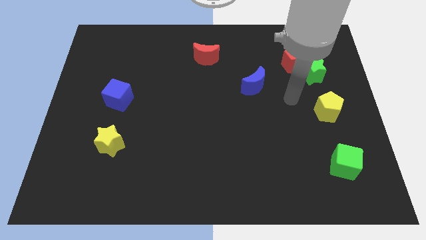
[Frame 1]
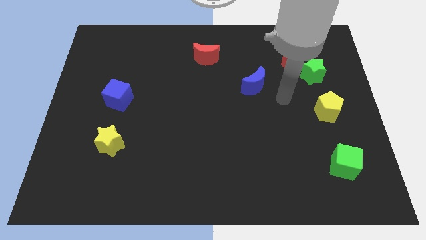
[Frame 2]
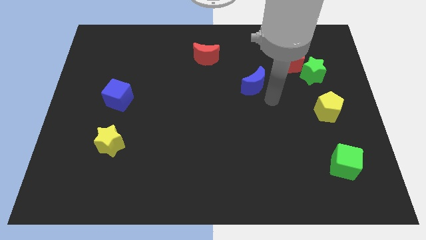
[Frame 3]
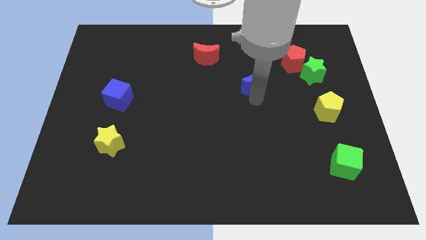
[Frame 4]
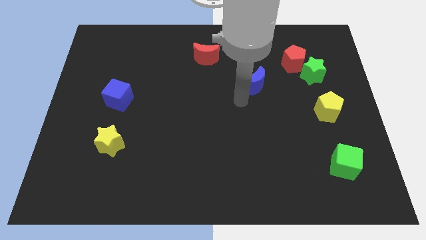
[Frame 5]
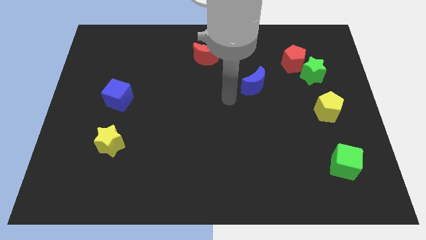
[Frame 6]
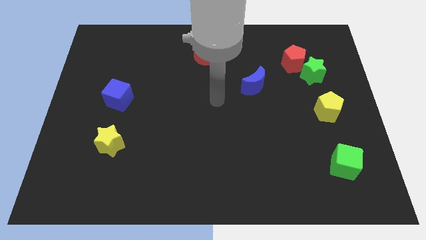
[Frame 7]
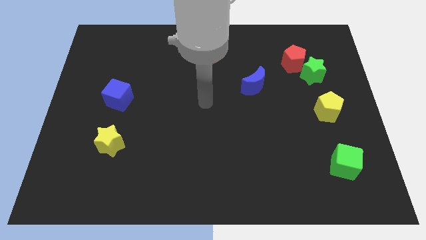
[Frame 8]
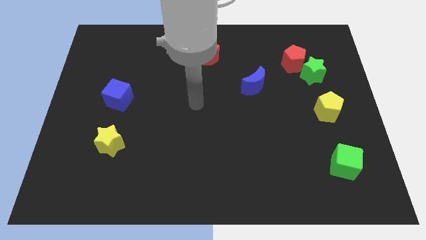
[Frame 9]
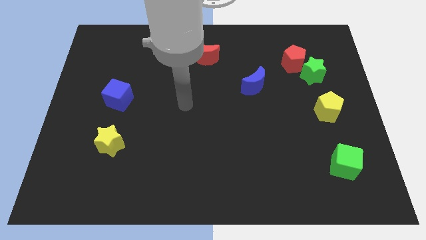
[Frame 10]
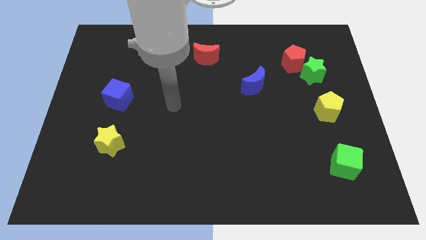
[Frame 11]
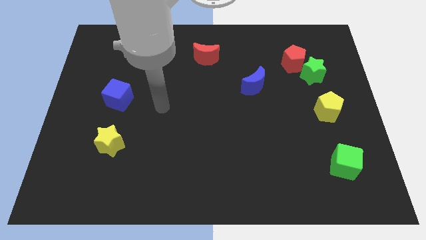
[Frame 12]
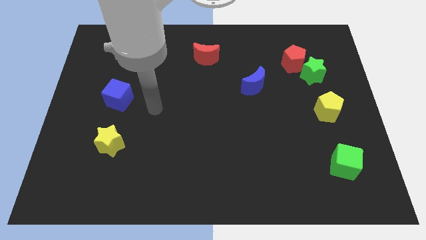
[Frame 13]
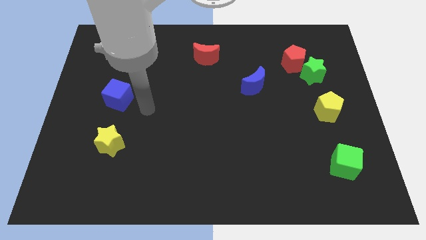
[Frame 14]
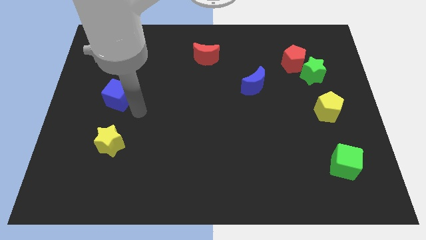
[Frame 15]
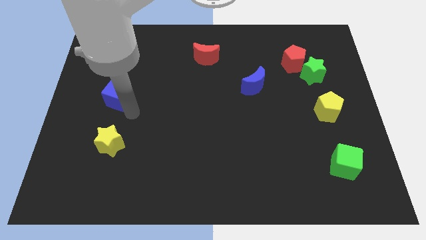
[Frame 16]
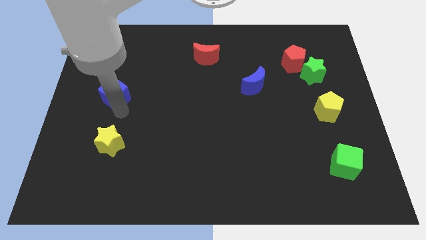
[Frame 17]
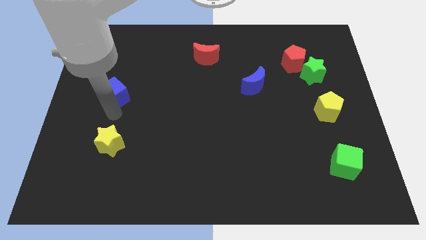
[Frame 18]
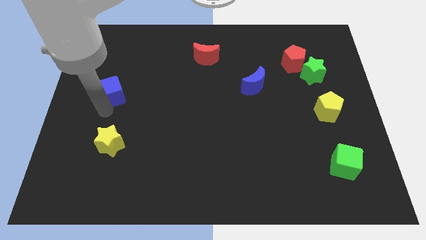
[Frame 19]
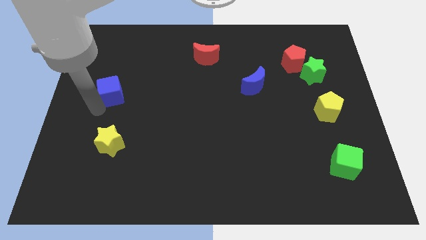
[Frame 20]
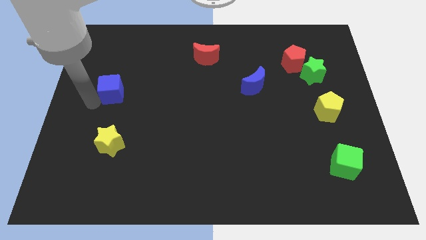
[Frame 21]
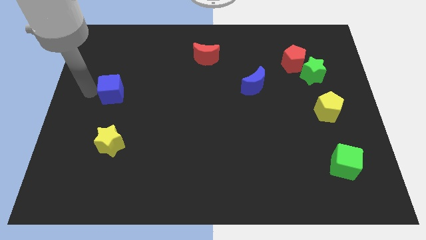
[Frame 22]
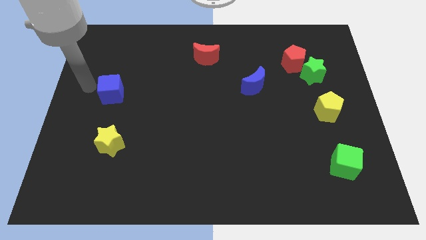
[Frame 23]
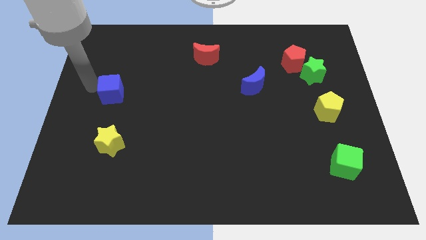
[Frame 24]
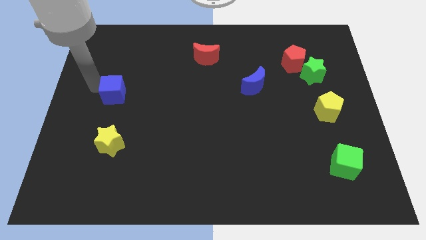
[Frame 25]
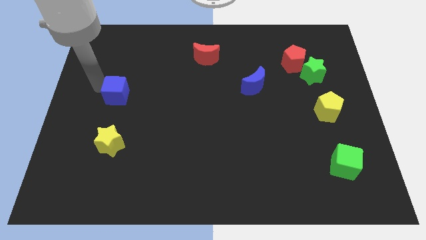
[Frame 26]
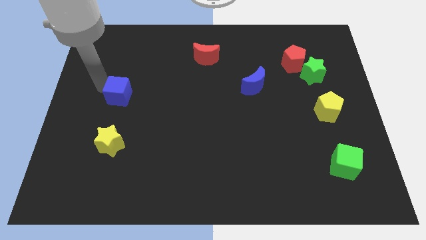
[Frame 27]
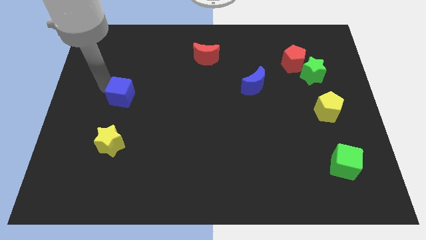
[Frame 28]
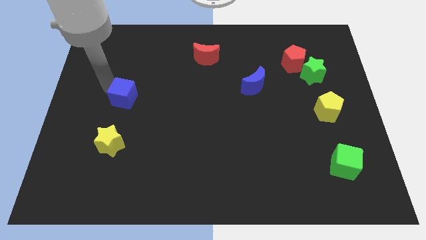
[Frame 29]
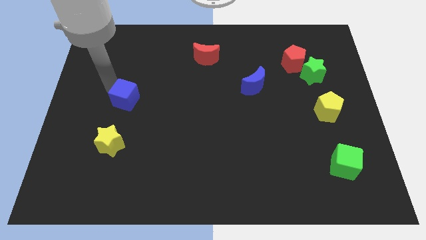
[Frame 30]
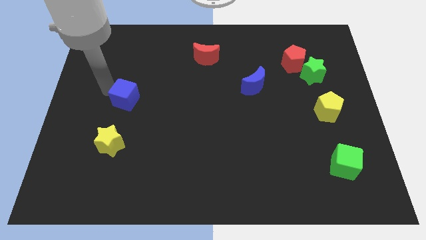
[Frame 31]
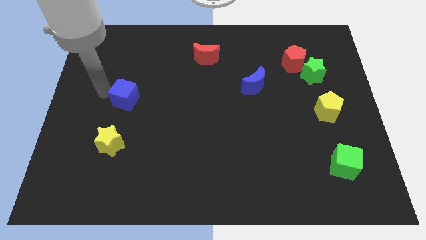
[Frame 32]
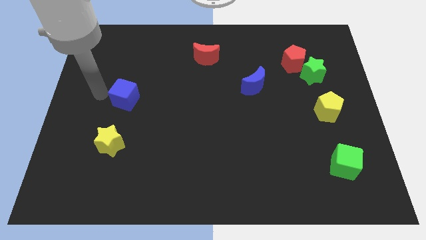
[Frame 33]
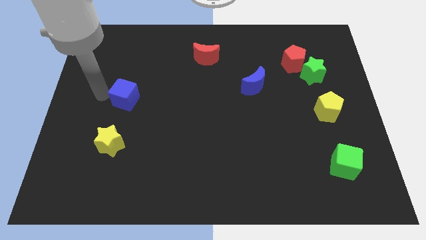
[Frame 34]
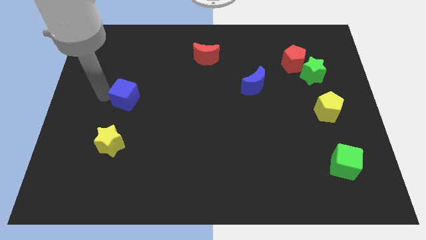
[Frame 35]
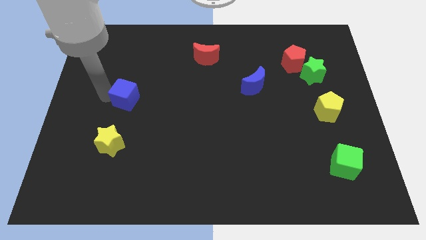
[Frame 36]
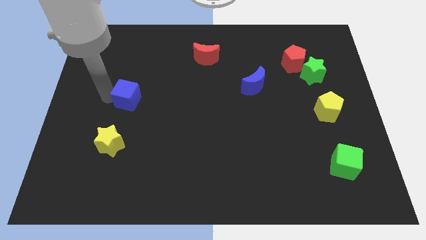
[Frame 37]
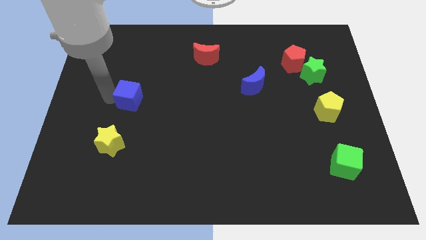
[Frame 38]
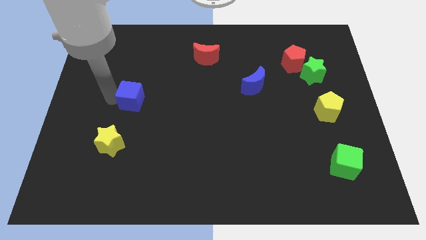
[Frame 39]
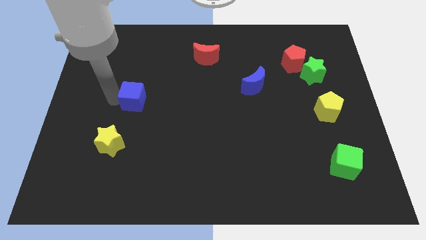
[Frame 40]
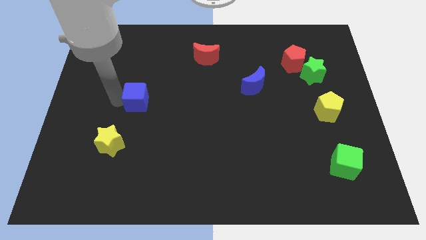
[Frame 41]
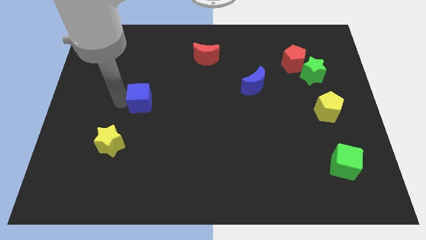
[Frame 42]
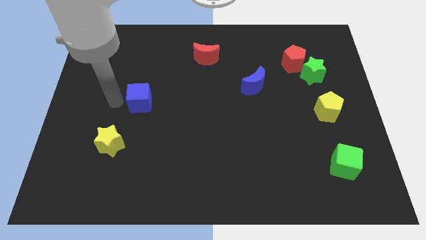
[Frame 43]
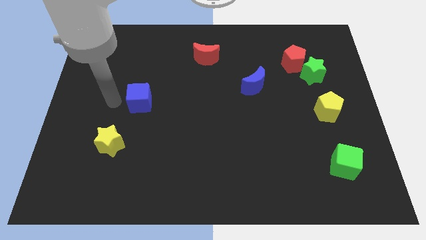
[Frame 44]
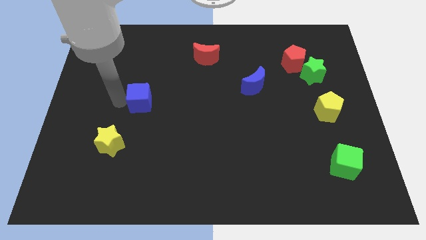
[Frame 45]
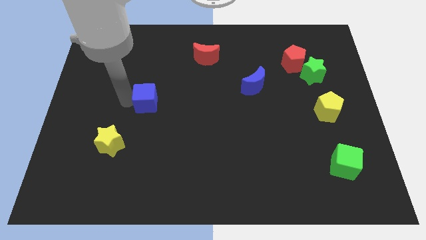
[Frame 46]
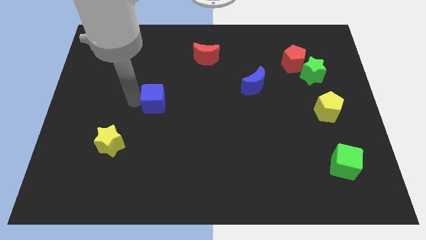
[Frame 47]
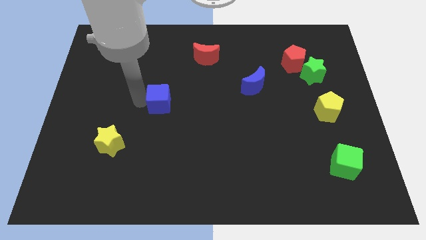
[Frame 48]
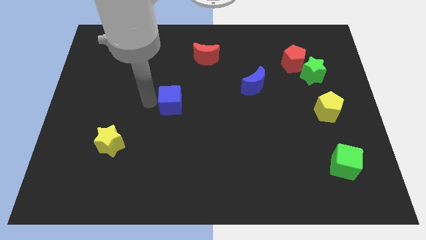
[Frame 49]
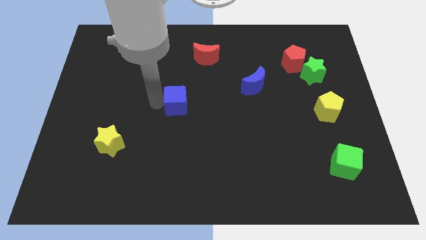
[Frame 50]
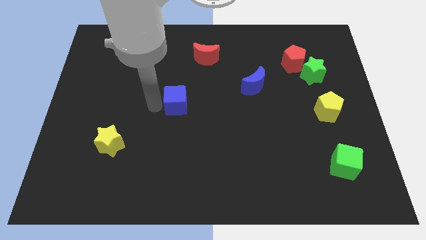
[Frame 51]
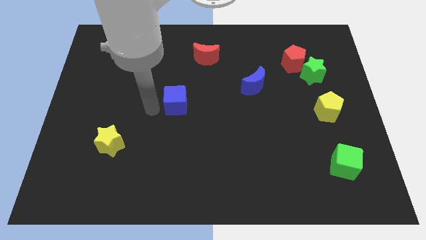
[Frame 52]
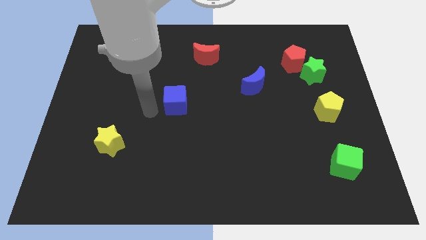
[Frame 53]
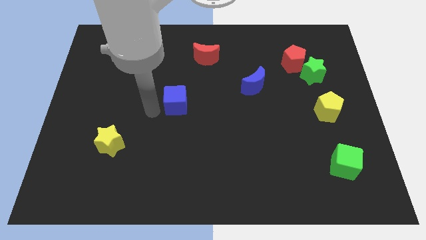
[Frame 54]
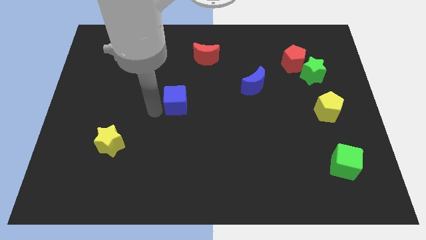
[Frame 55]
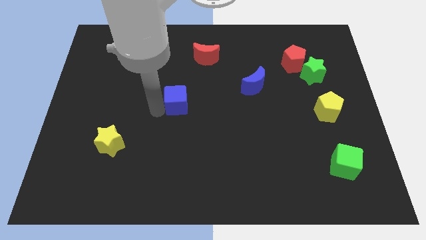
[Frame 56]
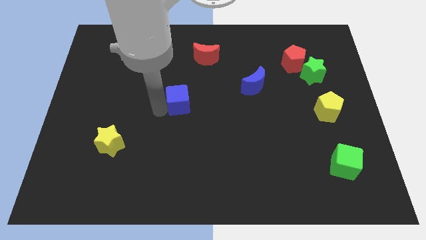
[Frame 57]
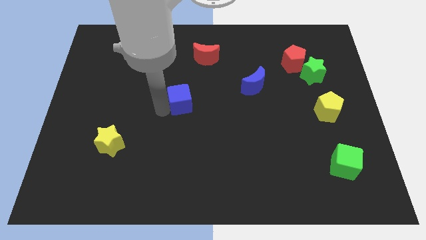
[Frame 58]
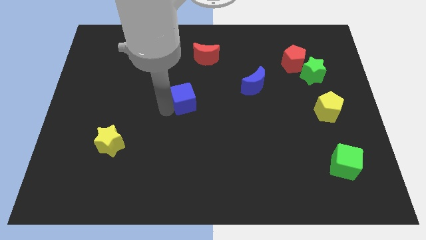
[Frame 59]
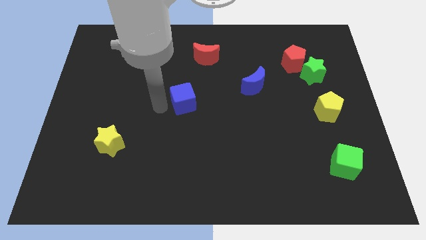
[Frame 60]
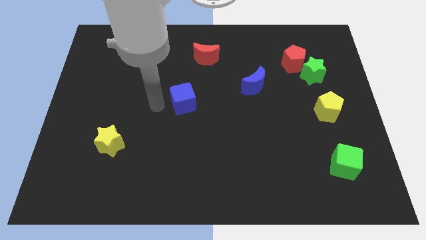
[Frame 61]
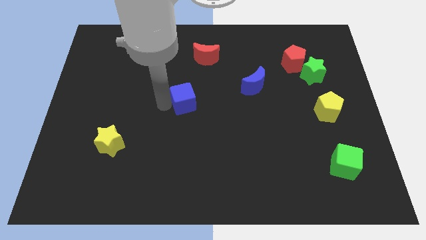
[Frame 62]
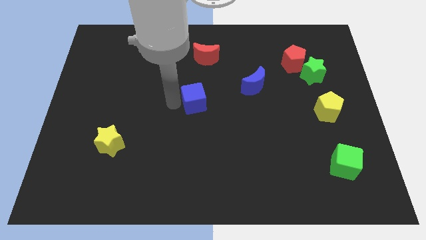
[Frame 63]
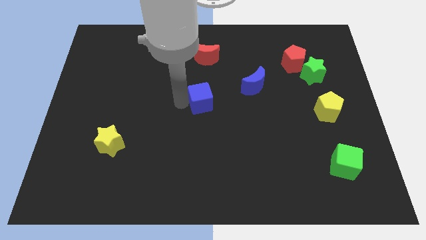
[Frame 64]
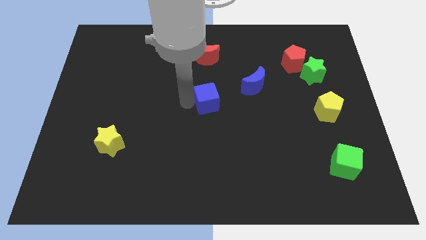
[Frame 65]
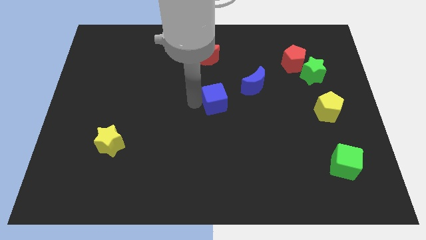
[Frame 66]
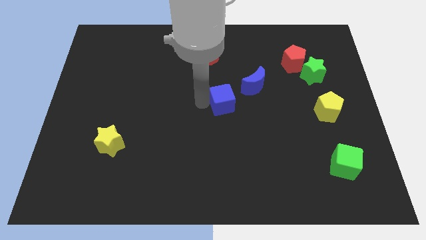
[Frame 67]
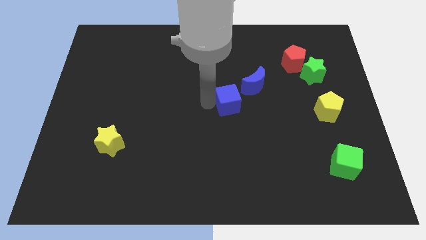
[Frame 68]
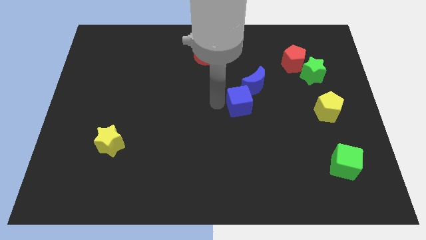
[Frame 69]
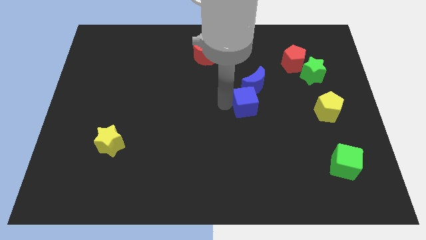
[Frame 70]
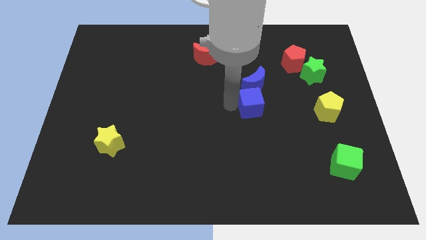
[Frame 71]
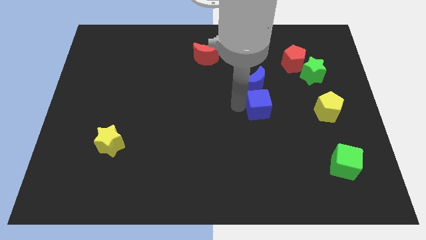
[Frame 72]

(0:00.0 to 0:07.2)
push the blue cube to the bottom right side of the blue moon
